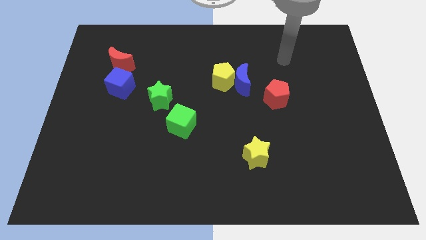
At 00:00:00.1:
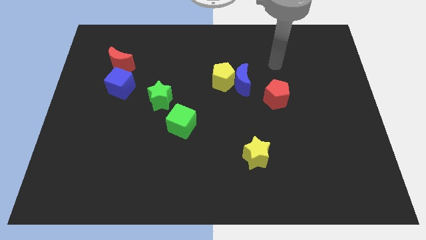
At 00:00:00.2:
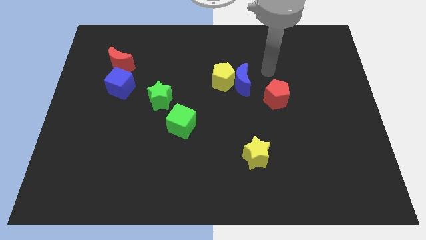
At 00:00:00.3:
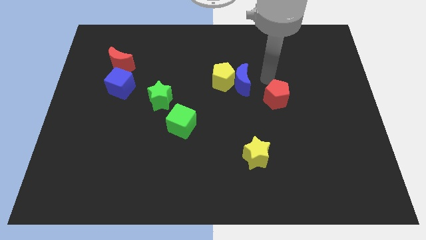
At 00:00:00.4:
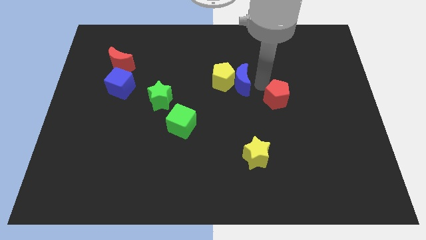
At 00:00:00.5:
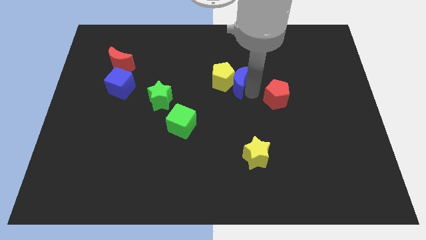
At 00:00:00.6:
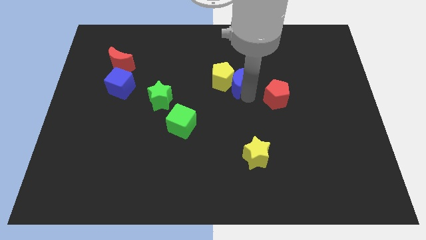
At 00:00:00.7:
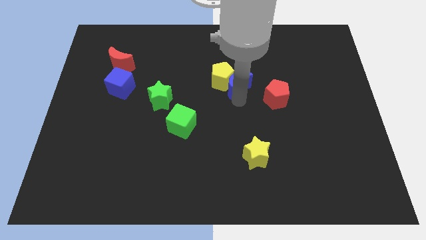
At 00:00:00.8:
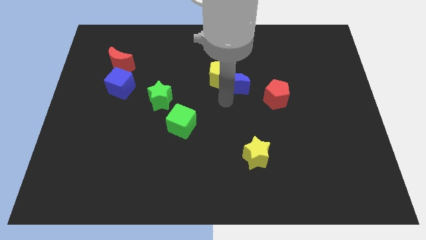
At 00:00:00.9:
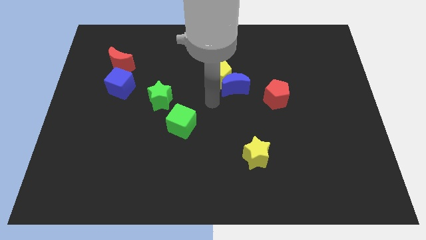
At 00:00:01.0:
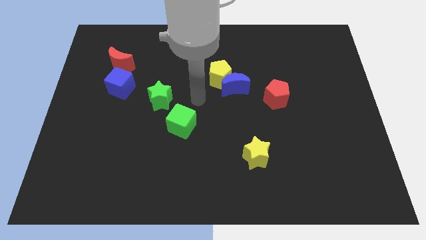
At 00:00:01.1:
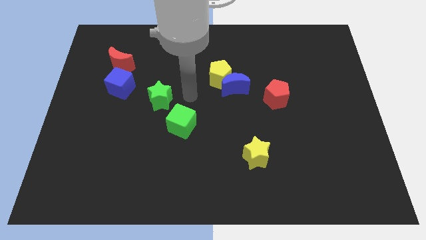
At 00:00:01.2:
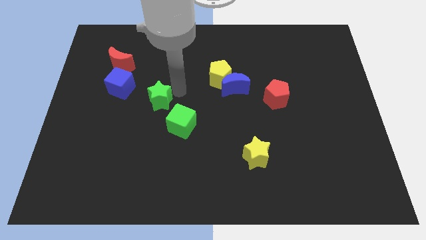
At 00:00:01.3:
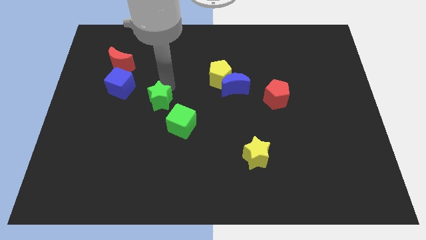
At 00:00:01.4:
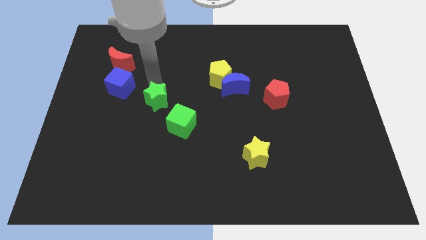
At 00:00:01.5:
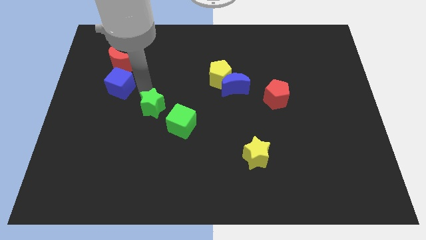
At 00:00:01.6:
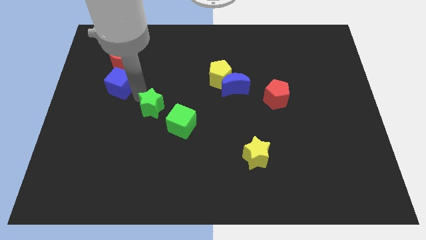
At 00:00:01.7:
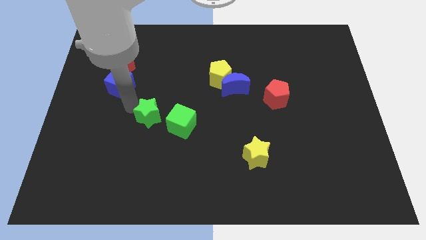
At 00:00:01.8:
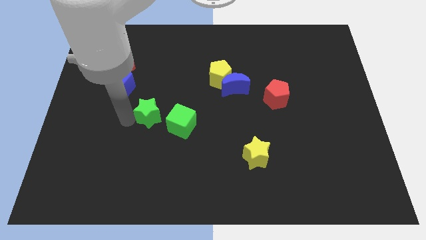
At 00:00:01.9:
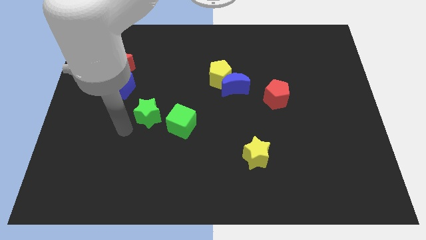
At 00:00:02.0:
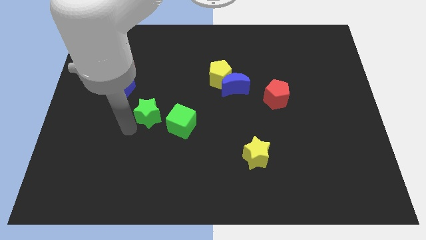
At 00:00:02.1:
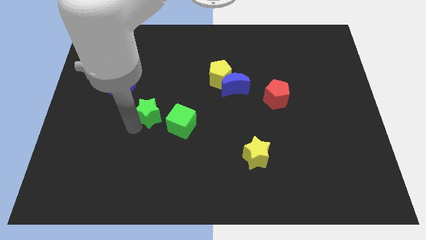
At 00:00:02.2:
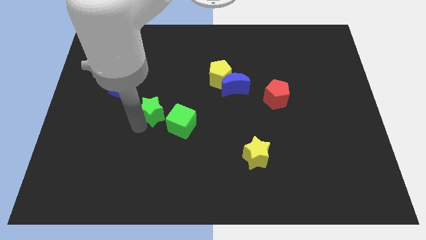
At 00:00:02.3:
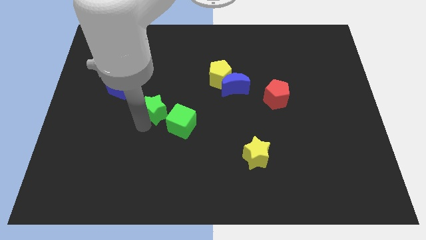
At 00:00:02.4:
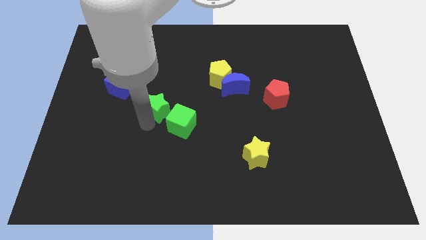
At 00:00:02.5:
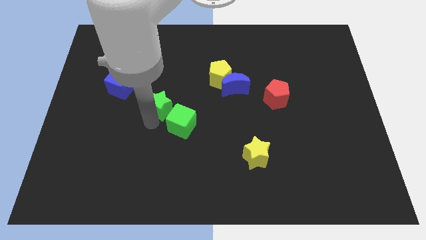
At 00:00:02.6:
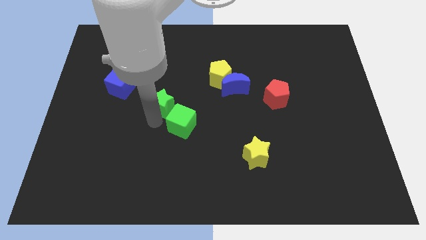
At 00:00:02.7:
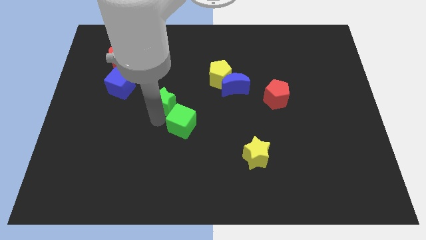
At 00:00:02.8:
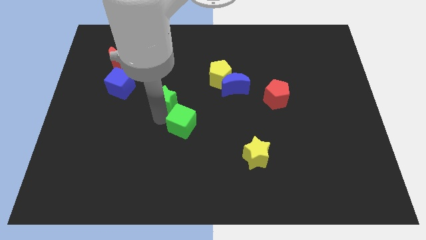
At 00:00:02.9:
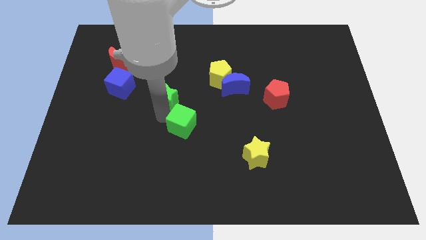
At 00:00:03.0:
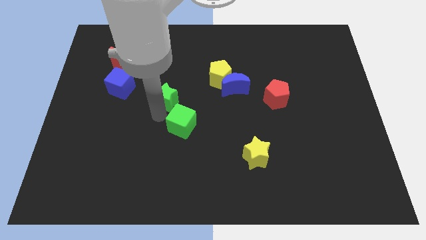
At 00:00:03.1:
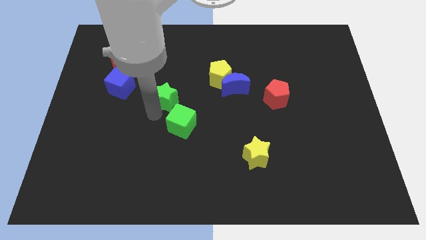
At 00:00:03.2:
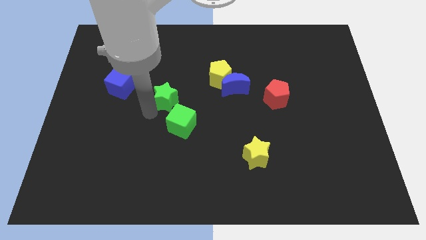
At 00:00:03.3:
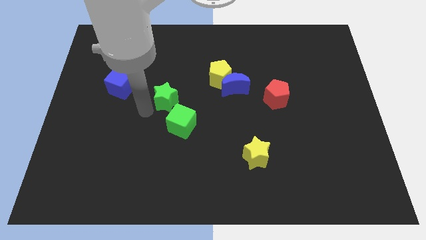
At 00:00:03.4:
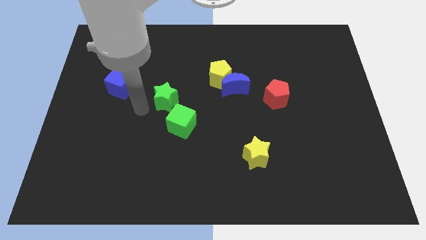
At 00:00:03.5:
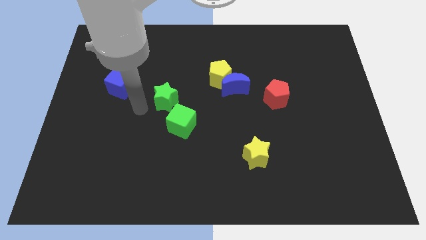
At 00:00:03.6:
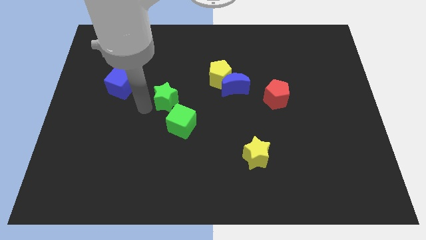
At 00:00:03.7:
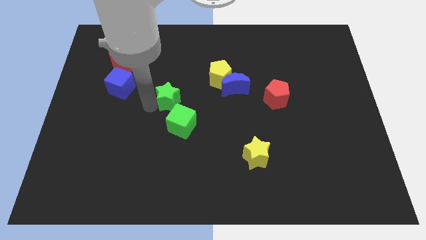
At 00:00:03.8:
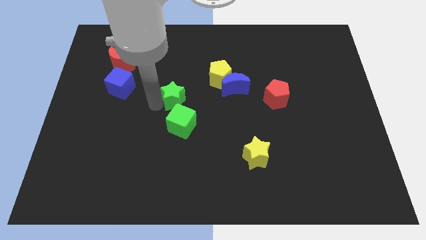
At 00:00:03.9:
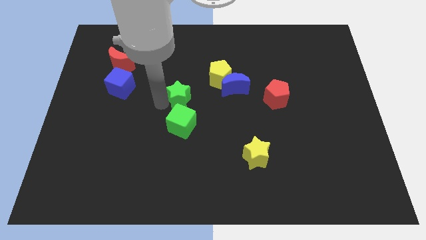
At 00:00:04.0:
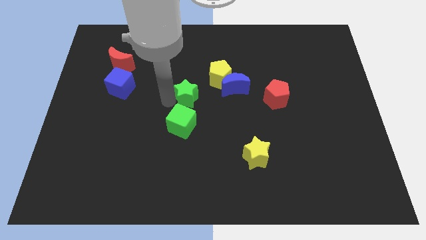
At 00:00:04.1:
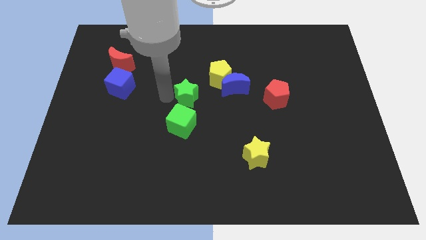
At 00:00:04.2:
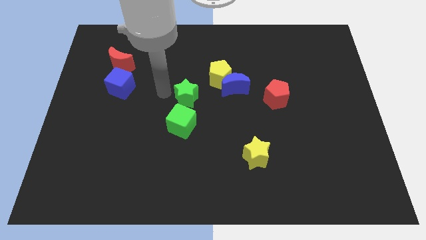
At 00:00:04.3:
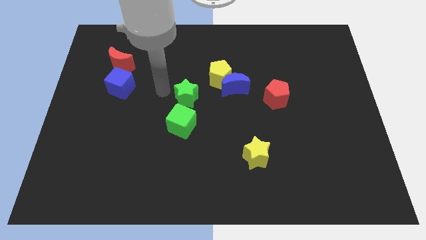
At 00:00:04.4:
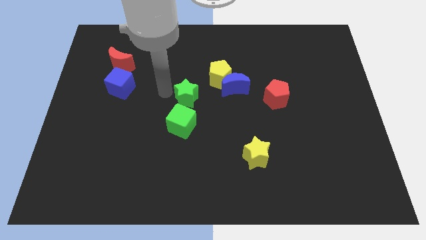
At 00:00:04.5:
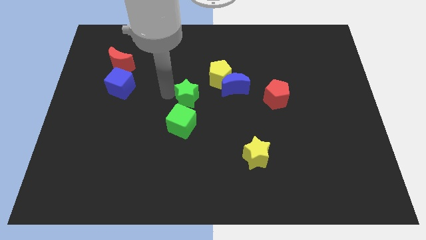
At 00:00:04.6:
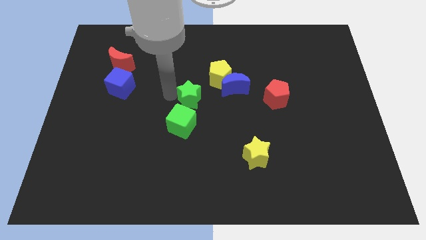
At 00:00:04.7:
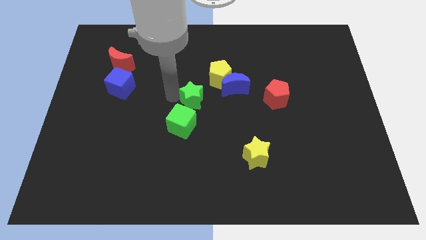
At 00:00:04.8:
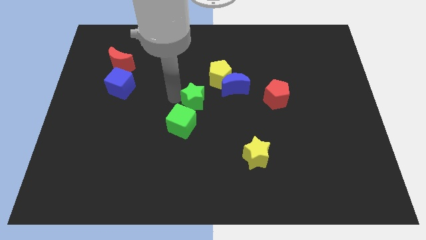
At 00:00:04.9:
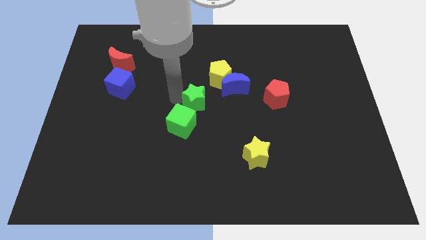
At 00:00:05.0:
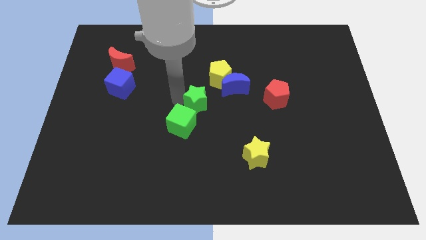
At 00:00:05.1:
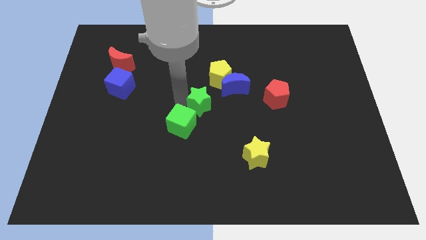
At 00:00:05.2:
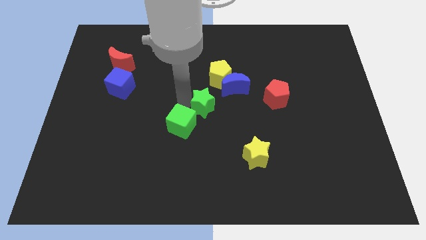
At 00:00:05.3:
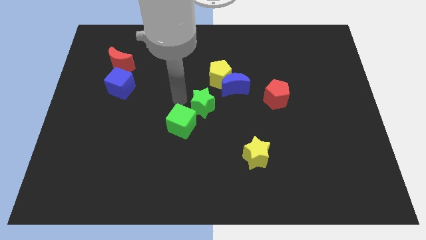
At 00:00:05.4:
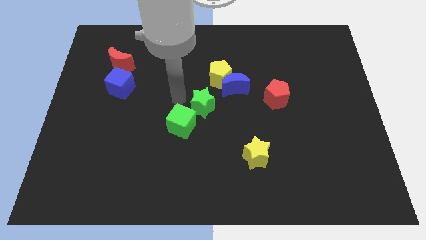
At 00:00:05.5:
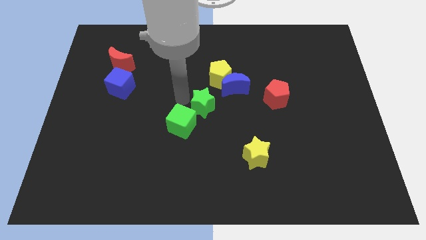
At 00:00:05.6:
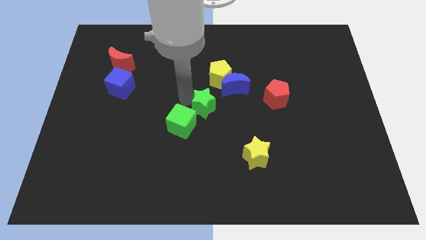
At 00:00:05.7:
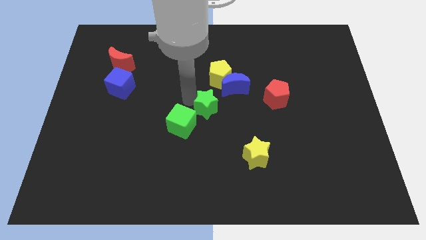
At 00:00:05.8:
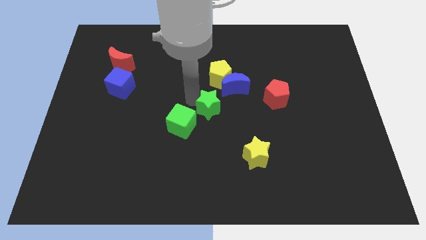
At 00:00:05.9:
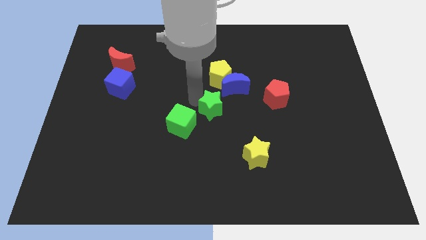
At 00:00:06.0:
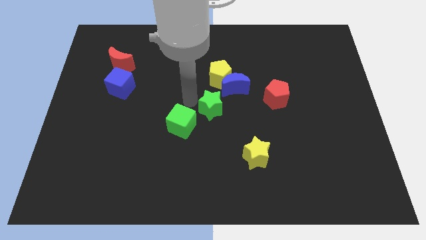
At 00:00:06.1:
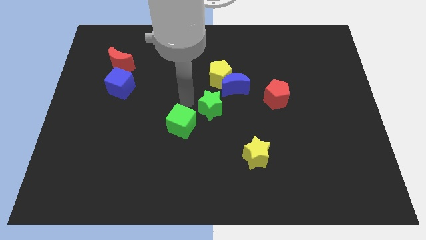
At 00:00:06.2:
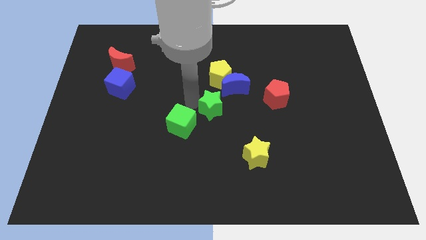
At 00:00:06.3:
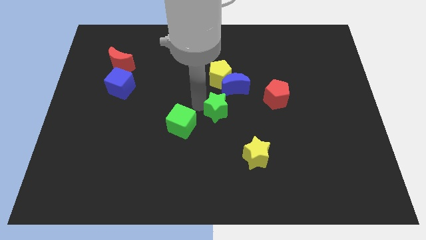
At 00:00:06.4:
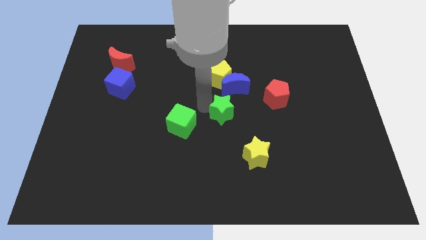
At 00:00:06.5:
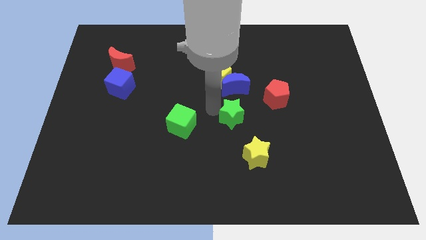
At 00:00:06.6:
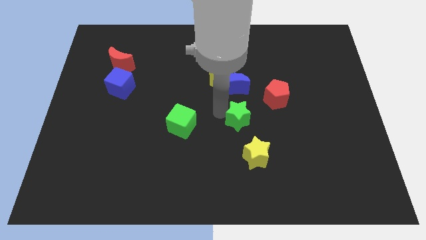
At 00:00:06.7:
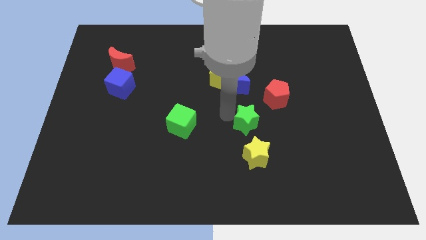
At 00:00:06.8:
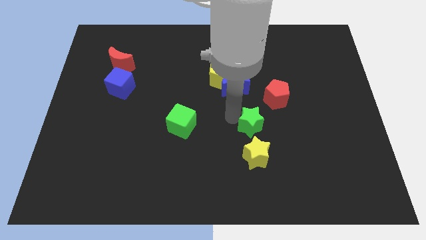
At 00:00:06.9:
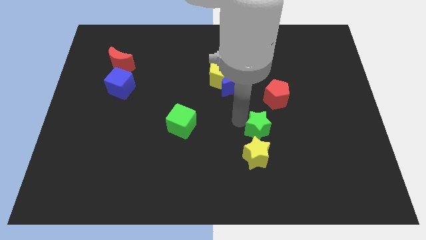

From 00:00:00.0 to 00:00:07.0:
slide the green star to the bottom of the red pentagon
